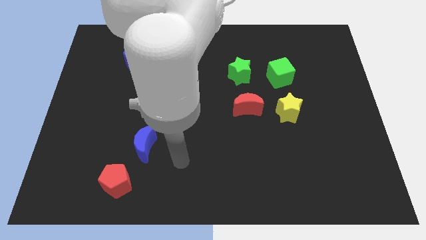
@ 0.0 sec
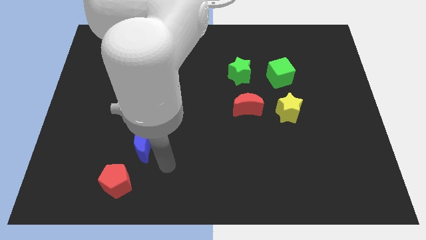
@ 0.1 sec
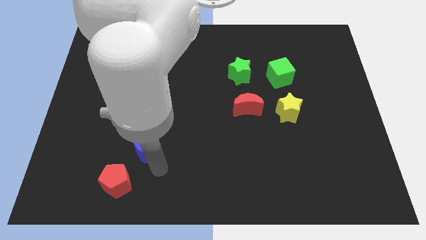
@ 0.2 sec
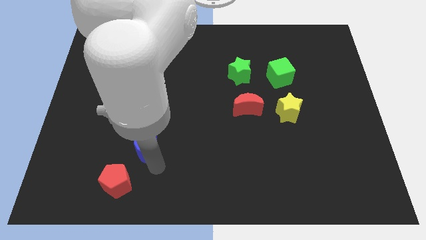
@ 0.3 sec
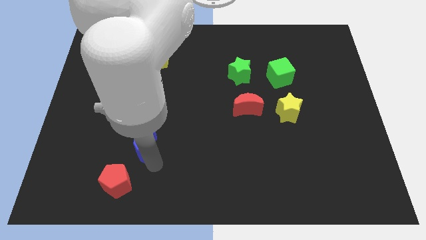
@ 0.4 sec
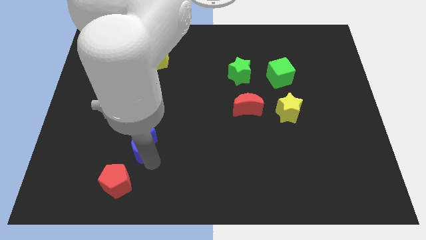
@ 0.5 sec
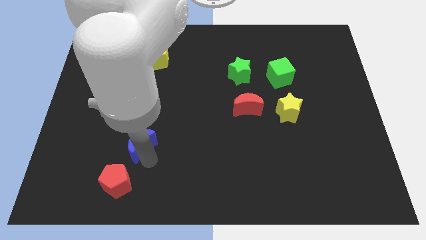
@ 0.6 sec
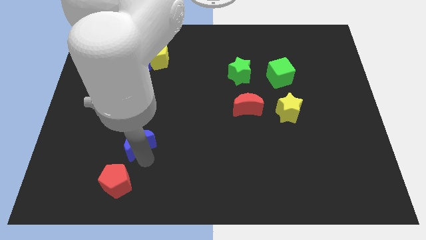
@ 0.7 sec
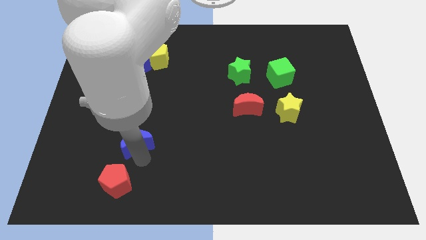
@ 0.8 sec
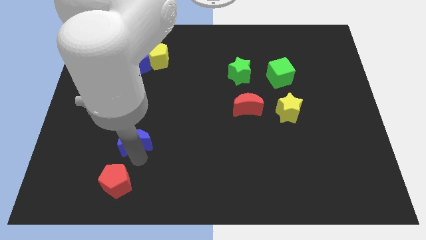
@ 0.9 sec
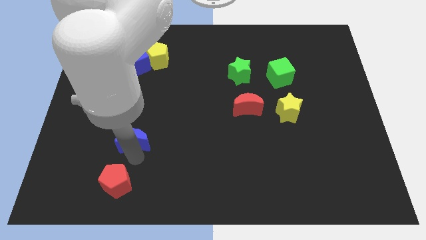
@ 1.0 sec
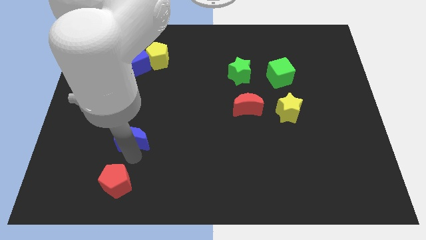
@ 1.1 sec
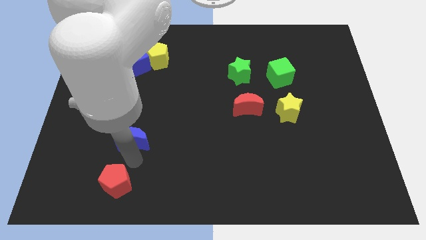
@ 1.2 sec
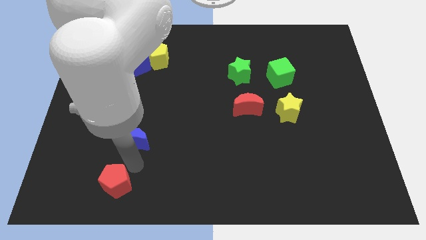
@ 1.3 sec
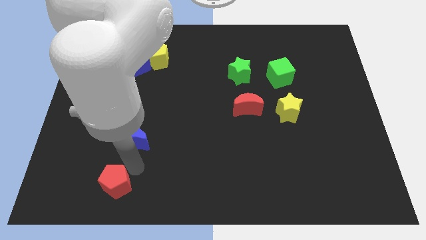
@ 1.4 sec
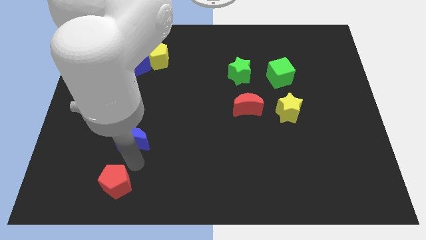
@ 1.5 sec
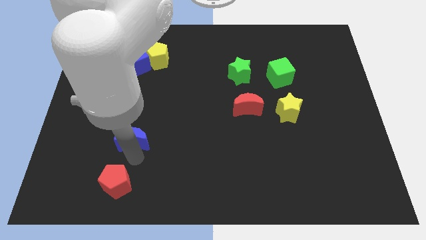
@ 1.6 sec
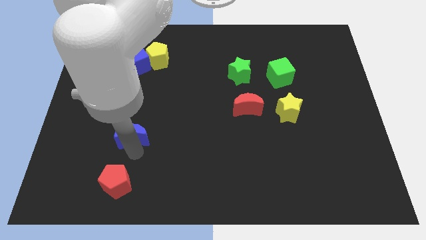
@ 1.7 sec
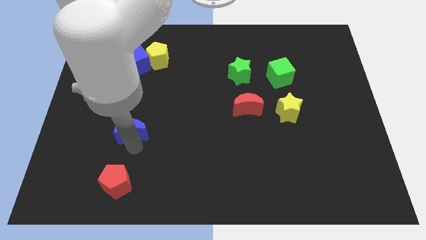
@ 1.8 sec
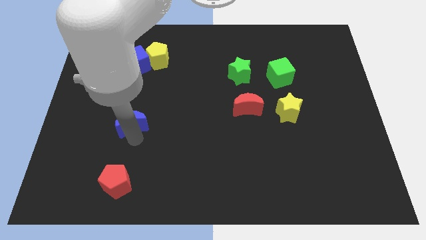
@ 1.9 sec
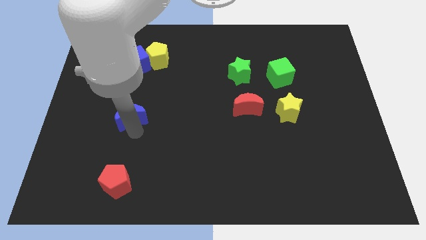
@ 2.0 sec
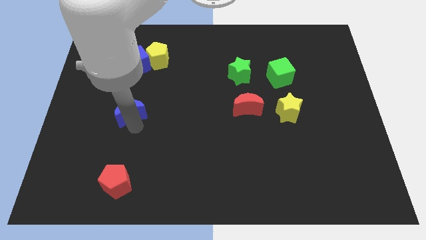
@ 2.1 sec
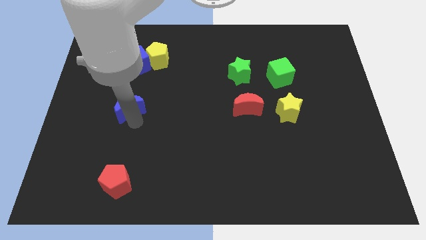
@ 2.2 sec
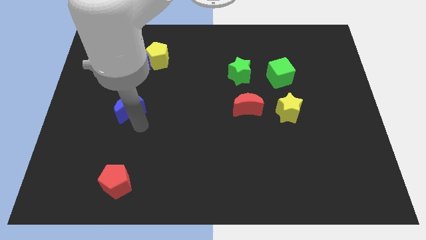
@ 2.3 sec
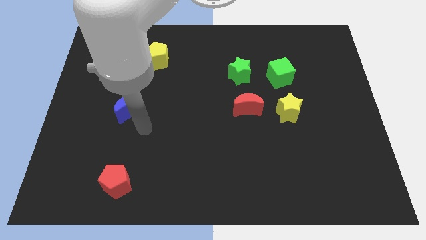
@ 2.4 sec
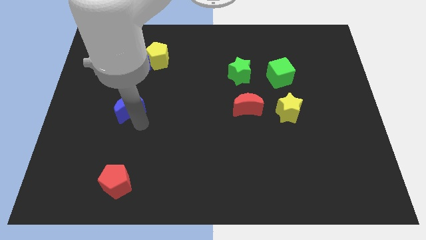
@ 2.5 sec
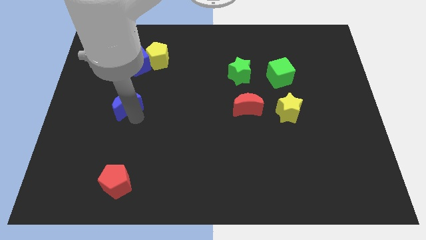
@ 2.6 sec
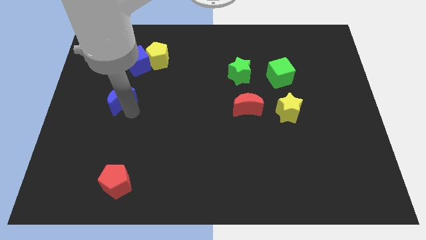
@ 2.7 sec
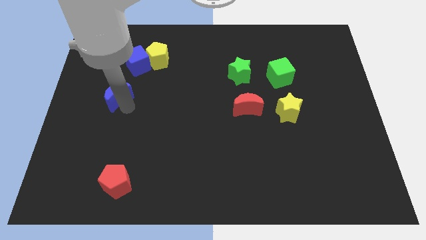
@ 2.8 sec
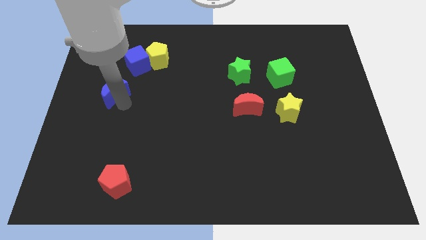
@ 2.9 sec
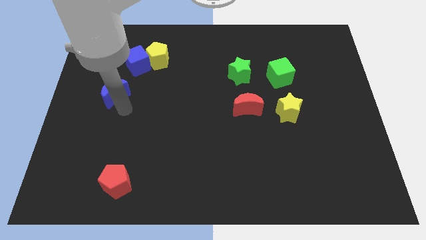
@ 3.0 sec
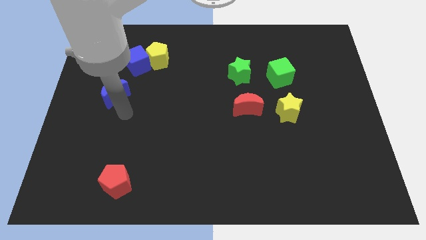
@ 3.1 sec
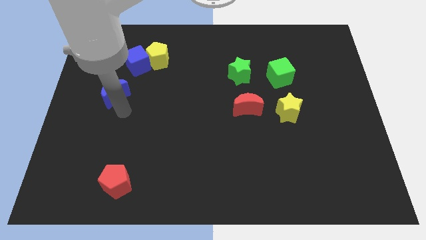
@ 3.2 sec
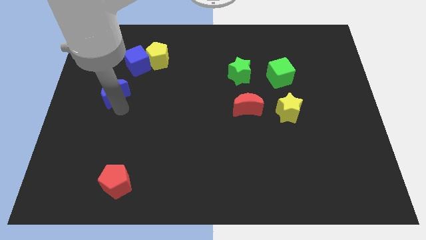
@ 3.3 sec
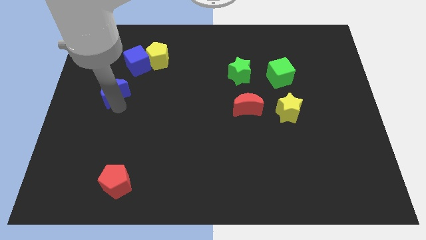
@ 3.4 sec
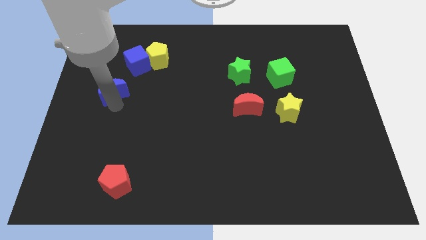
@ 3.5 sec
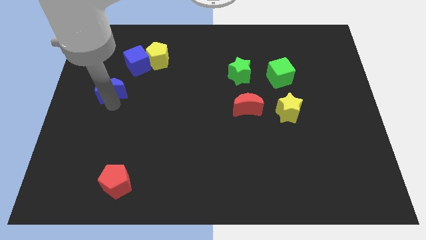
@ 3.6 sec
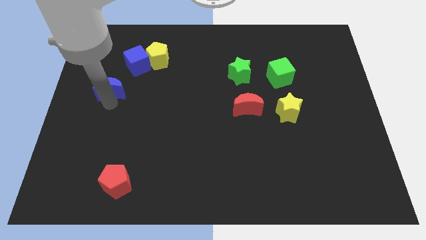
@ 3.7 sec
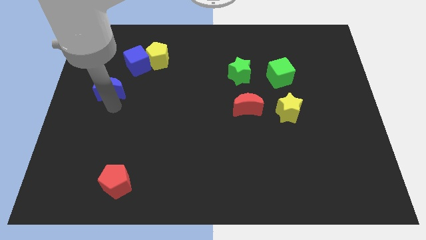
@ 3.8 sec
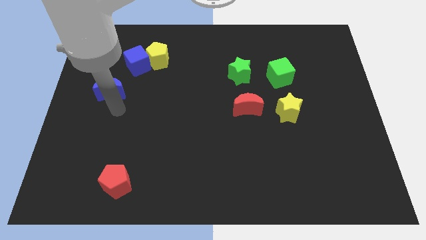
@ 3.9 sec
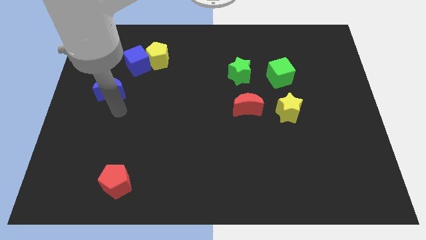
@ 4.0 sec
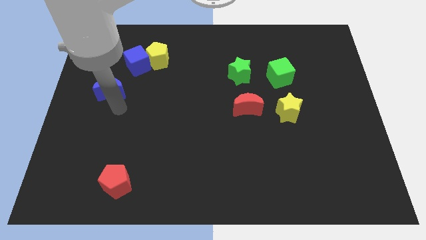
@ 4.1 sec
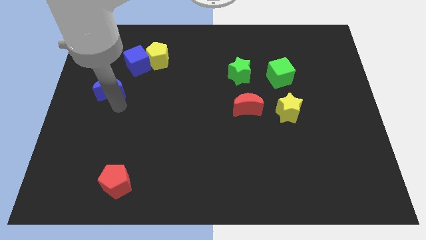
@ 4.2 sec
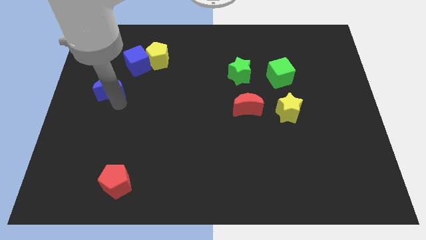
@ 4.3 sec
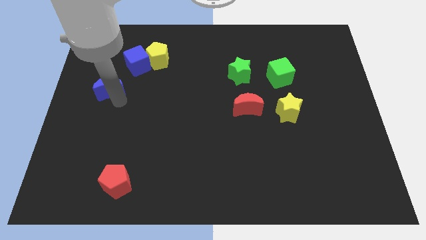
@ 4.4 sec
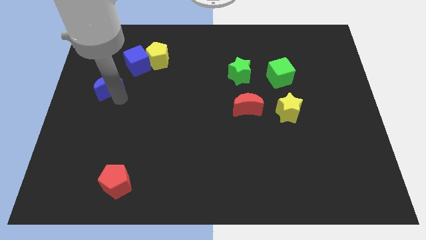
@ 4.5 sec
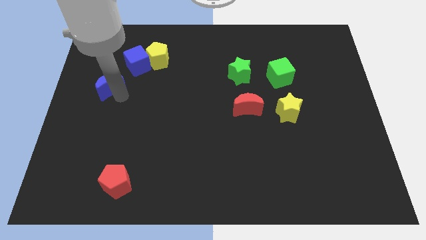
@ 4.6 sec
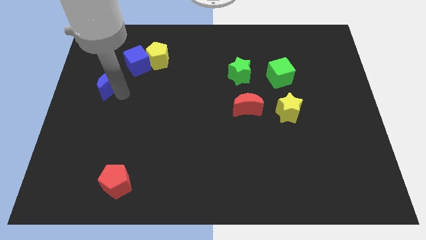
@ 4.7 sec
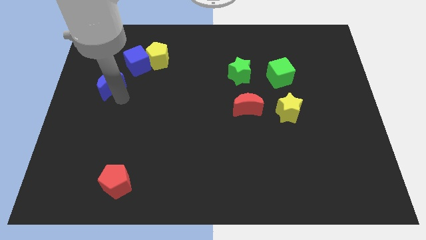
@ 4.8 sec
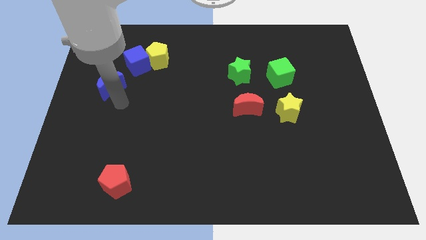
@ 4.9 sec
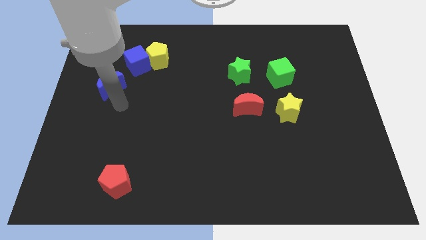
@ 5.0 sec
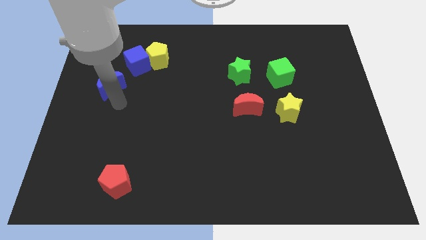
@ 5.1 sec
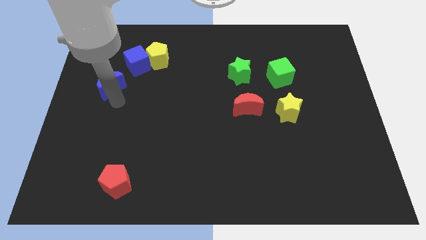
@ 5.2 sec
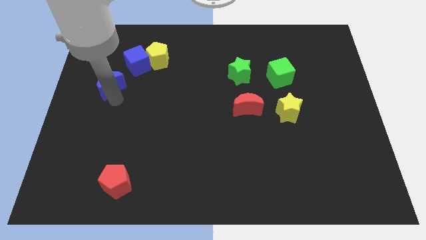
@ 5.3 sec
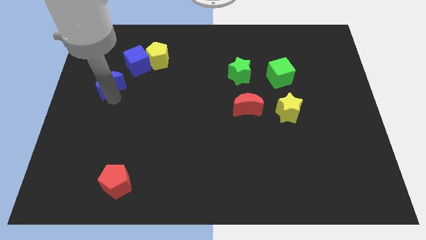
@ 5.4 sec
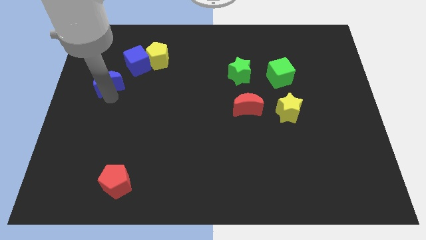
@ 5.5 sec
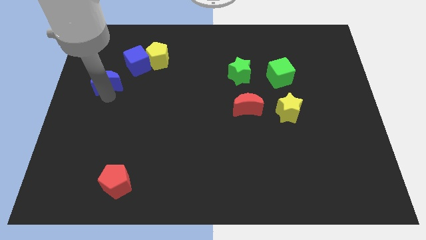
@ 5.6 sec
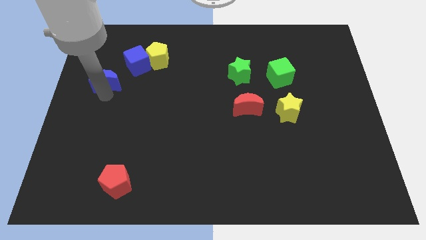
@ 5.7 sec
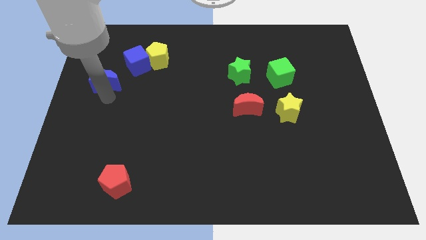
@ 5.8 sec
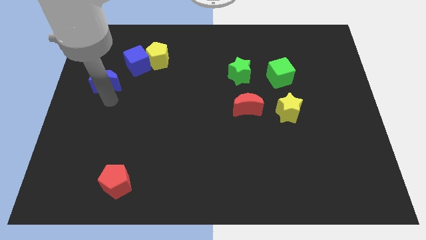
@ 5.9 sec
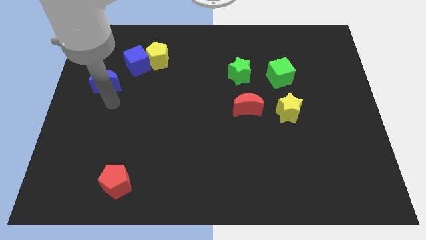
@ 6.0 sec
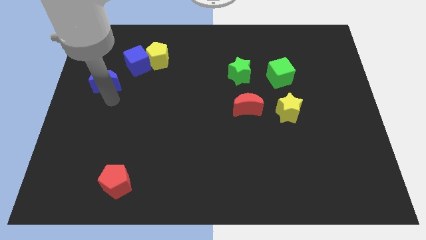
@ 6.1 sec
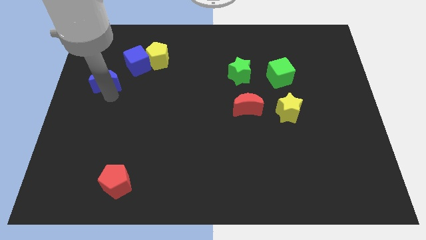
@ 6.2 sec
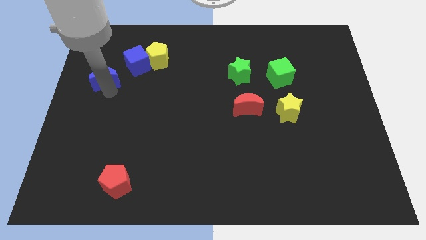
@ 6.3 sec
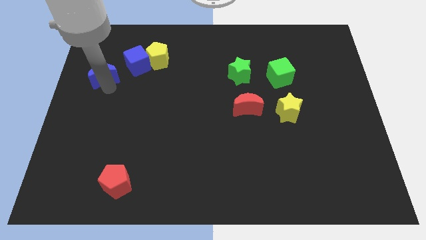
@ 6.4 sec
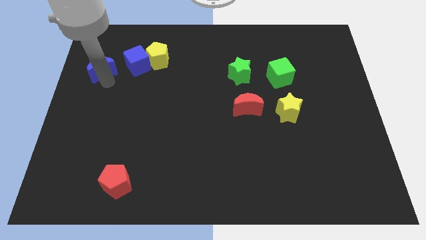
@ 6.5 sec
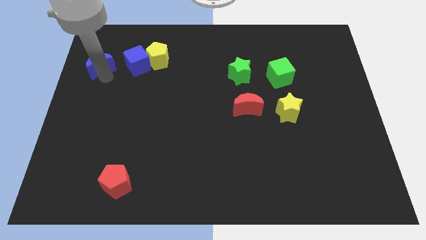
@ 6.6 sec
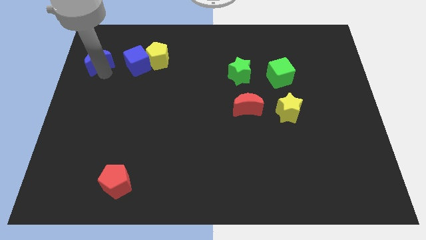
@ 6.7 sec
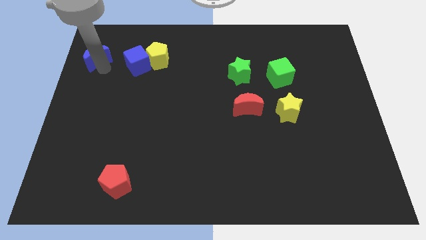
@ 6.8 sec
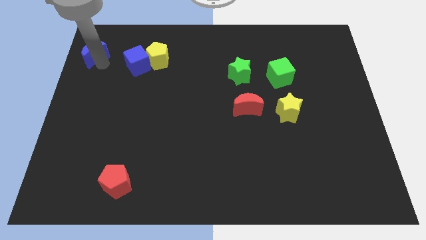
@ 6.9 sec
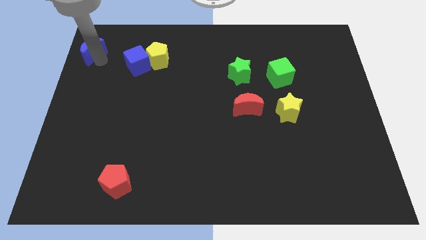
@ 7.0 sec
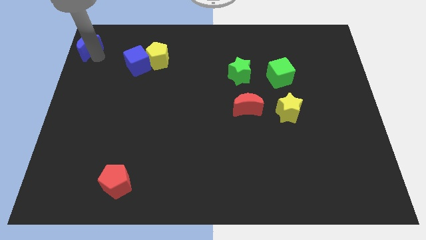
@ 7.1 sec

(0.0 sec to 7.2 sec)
put the blue moon to the top left

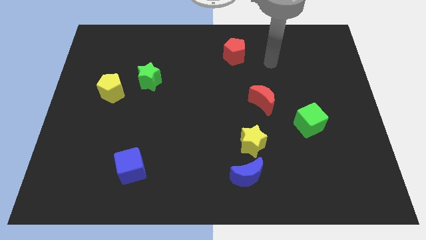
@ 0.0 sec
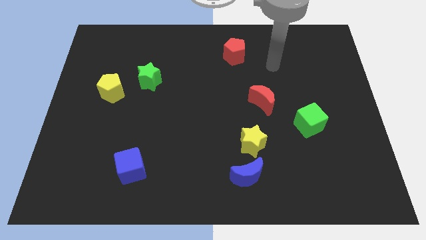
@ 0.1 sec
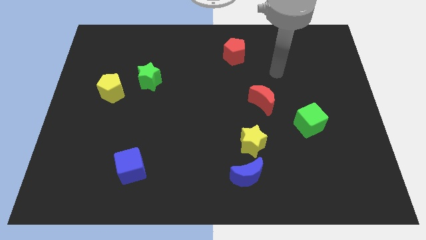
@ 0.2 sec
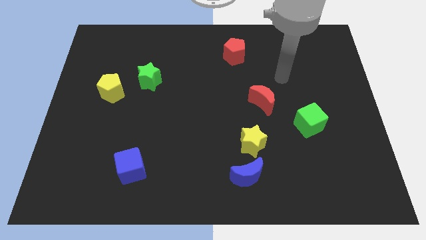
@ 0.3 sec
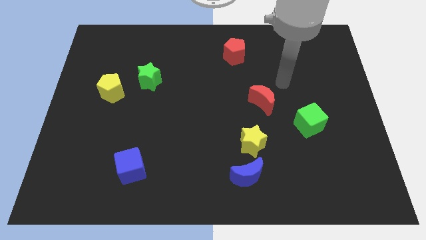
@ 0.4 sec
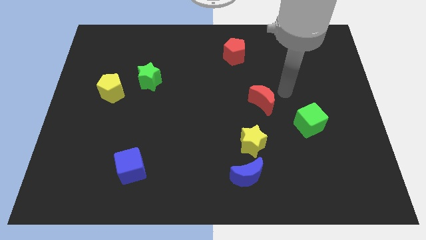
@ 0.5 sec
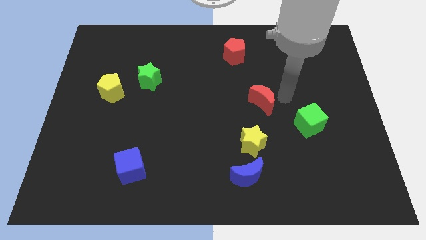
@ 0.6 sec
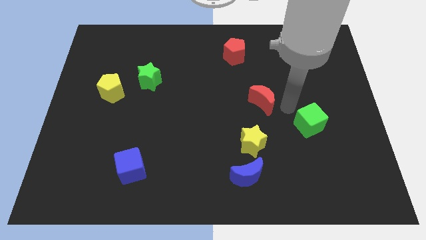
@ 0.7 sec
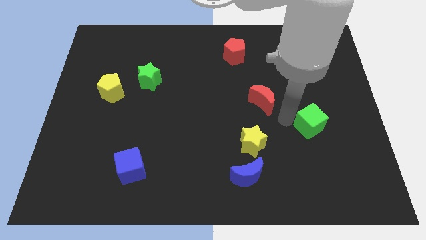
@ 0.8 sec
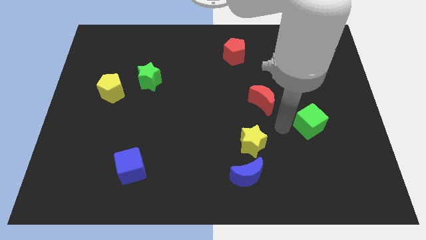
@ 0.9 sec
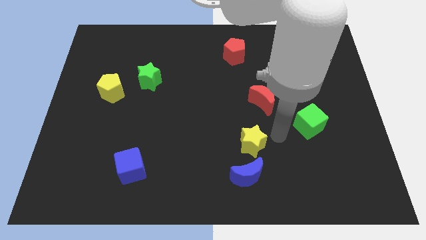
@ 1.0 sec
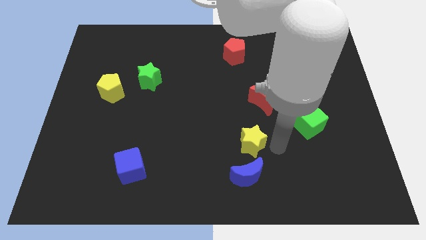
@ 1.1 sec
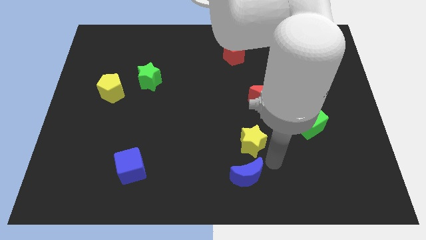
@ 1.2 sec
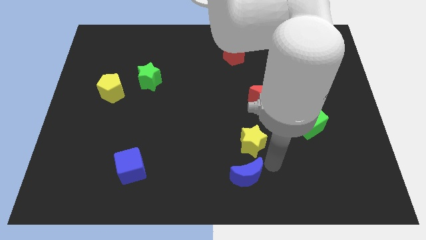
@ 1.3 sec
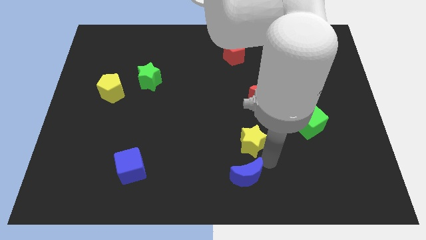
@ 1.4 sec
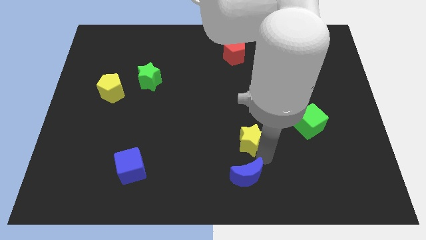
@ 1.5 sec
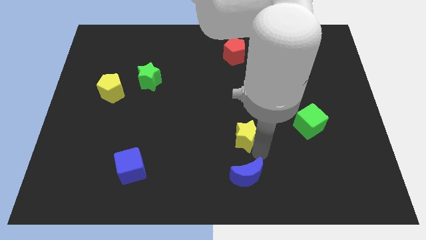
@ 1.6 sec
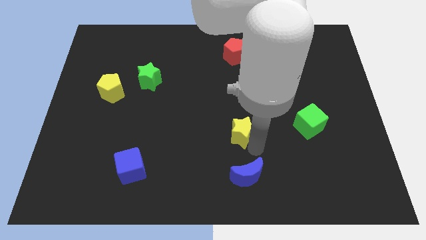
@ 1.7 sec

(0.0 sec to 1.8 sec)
move the yellow star to the center of the board
